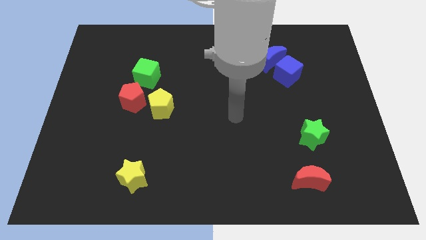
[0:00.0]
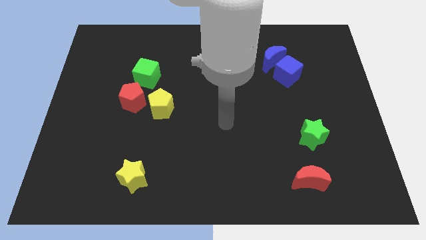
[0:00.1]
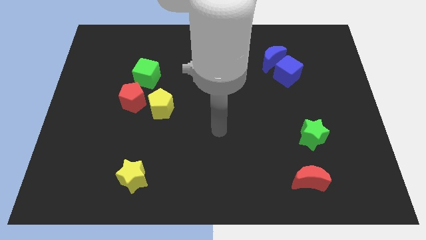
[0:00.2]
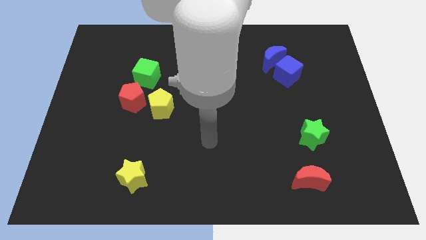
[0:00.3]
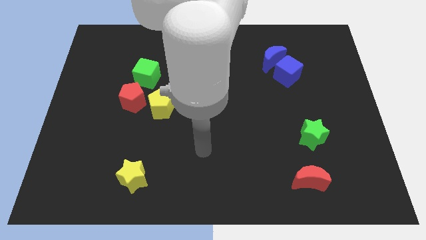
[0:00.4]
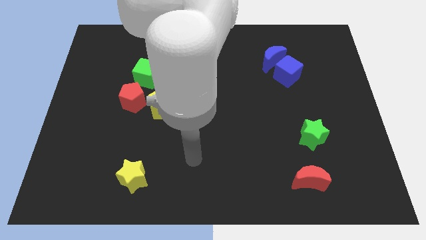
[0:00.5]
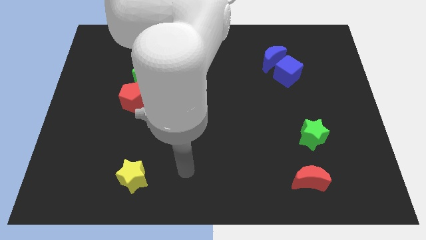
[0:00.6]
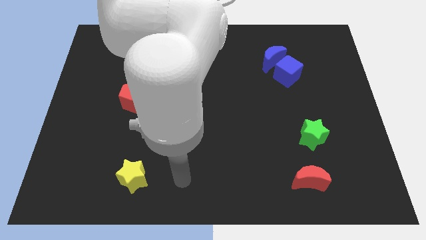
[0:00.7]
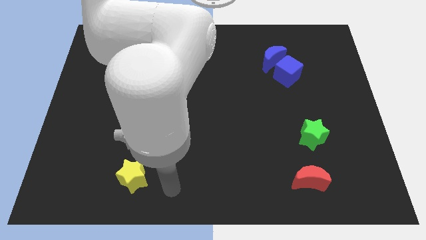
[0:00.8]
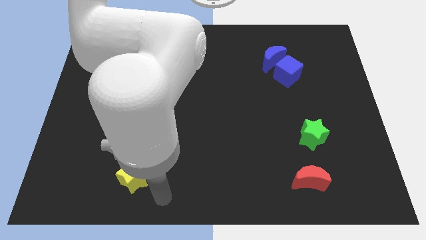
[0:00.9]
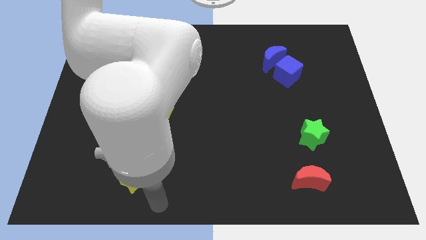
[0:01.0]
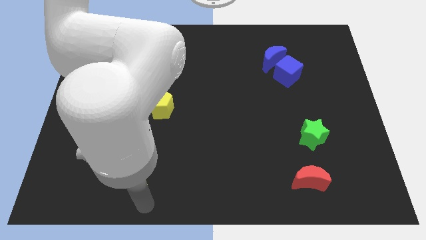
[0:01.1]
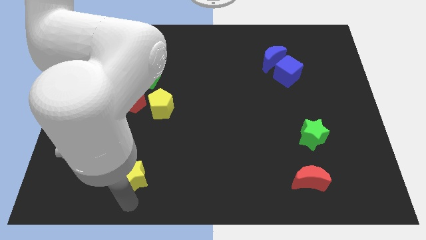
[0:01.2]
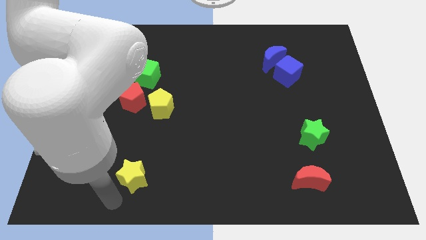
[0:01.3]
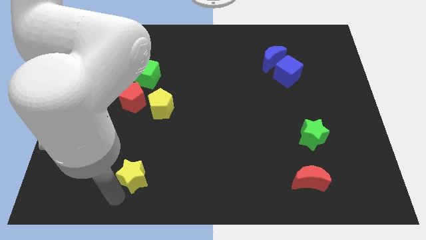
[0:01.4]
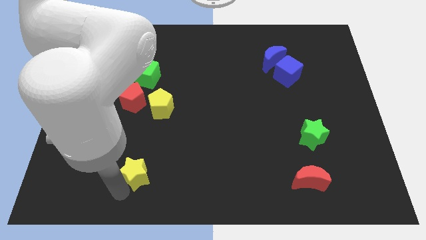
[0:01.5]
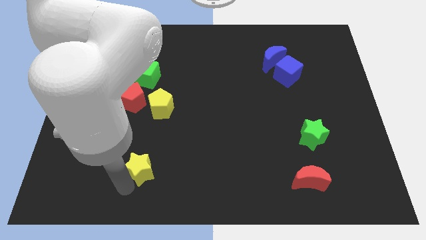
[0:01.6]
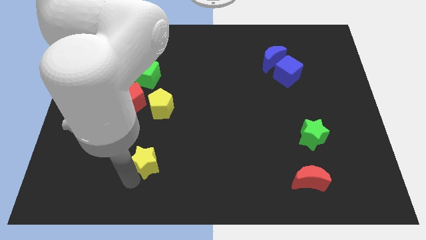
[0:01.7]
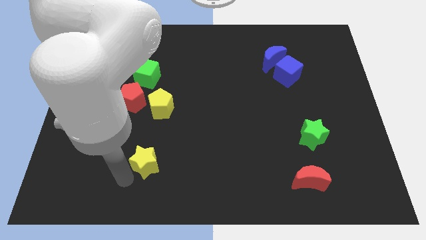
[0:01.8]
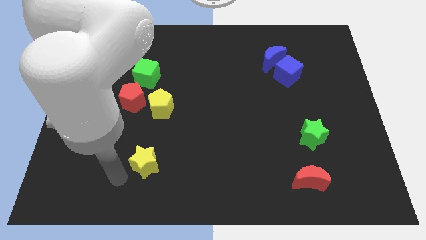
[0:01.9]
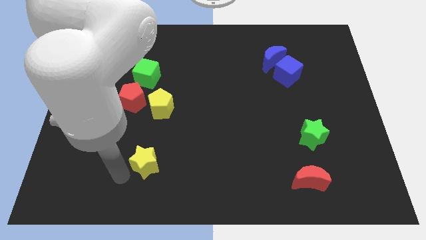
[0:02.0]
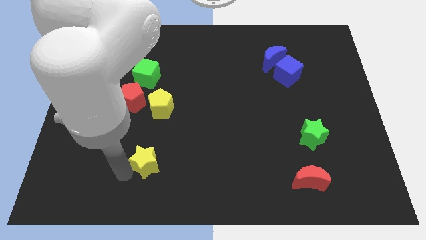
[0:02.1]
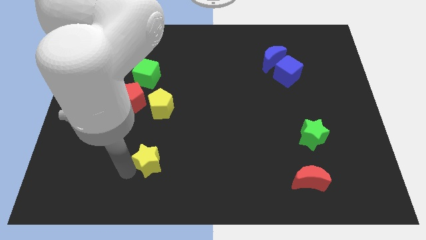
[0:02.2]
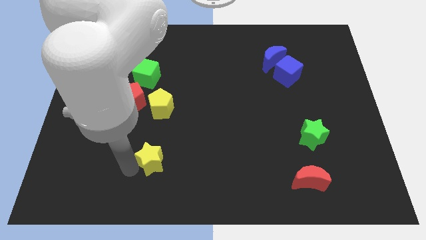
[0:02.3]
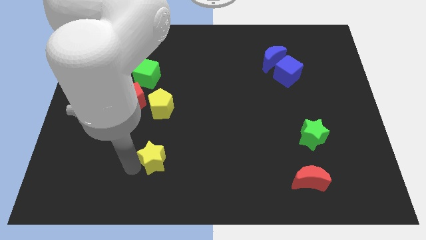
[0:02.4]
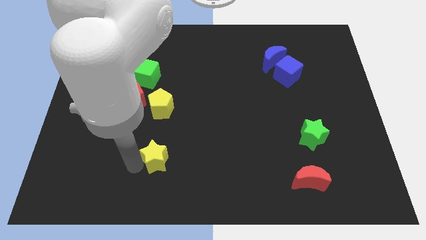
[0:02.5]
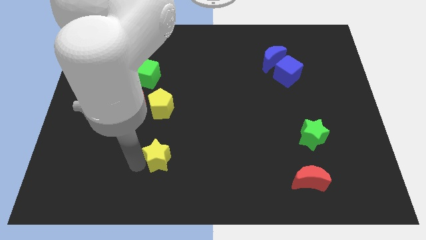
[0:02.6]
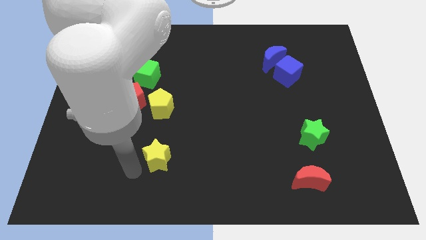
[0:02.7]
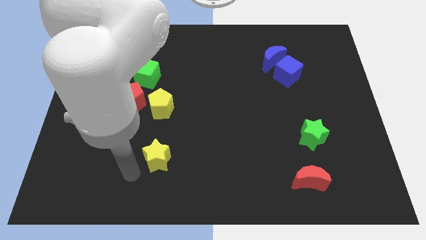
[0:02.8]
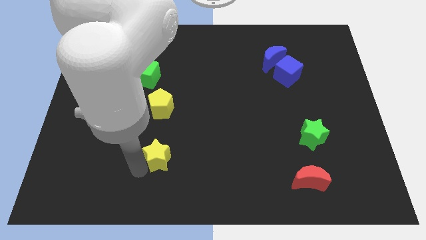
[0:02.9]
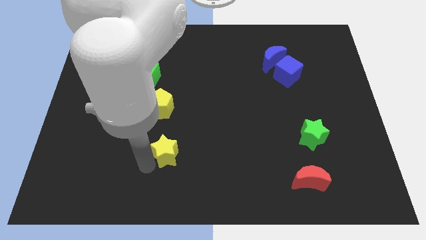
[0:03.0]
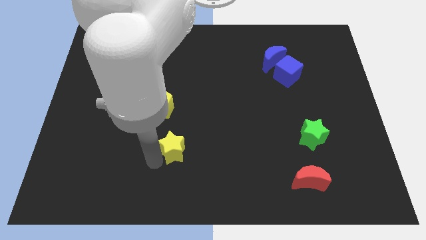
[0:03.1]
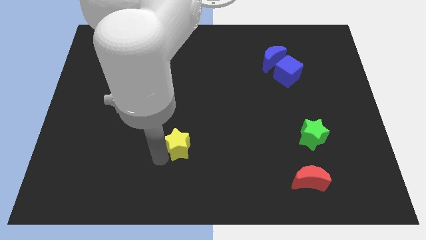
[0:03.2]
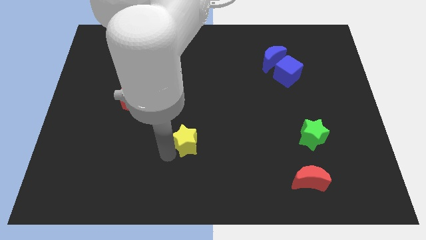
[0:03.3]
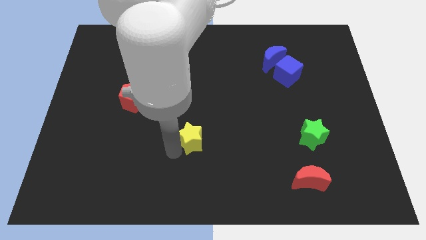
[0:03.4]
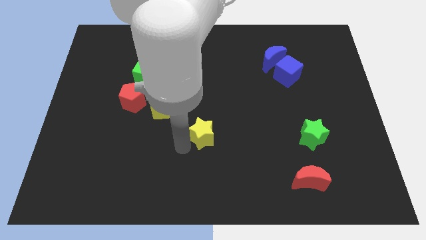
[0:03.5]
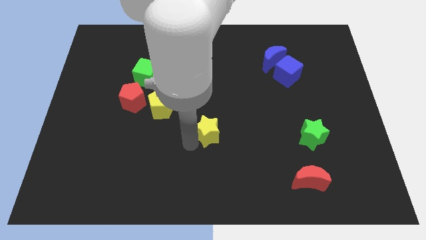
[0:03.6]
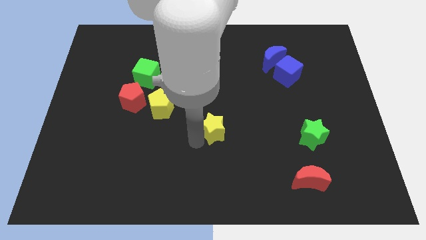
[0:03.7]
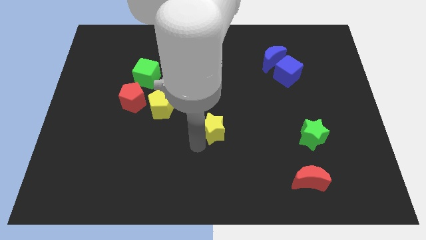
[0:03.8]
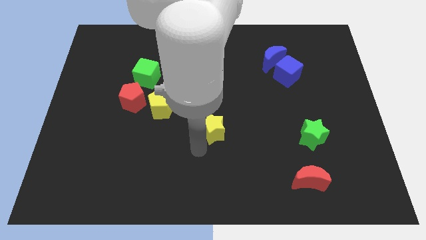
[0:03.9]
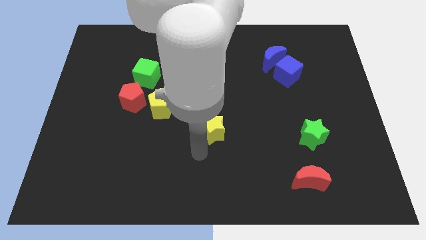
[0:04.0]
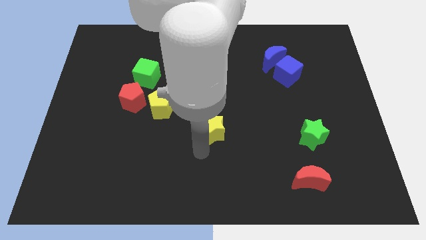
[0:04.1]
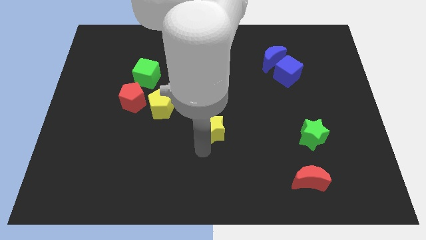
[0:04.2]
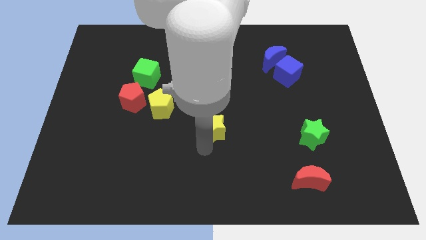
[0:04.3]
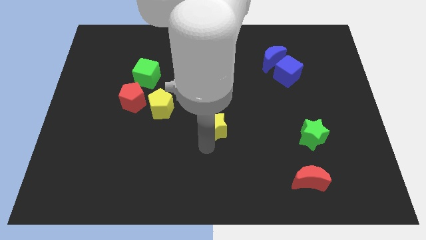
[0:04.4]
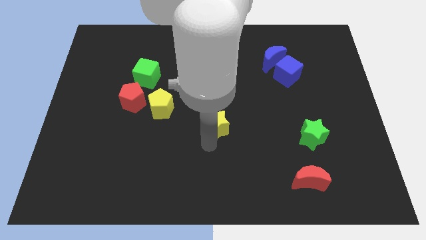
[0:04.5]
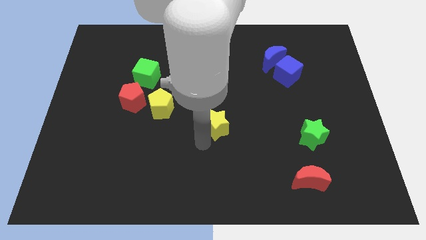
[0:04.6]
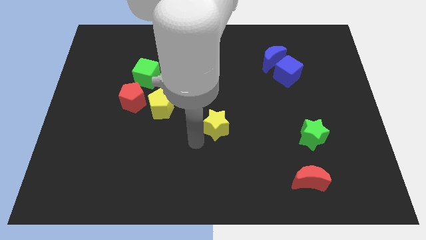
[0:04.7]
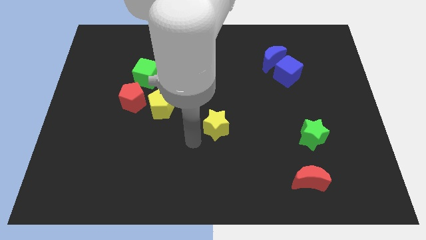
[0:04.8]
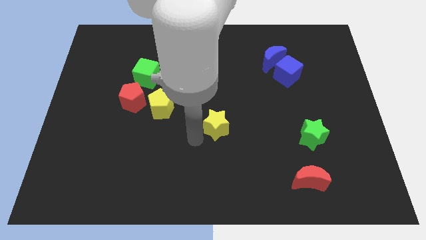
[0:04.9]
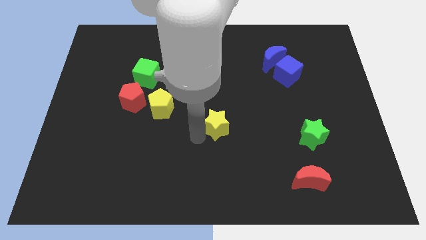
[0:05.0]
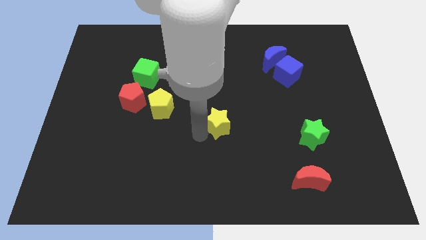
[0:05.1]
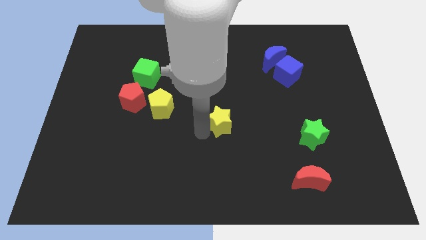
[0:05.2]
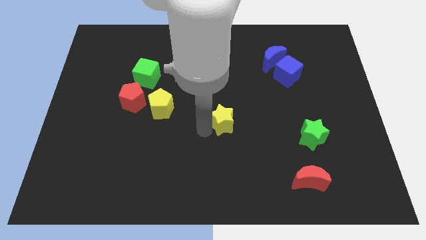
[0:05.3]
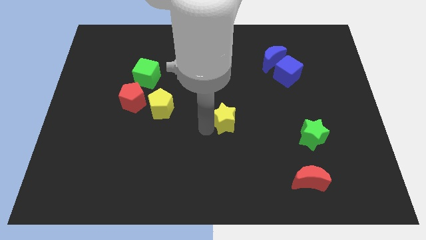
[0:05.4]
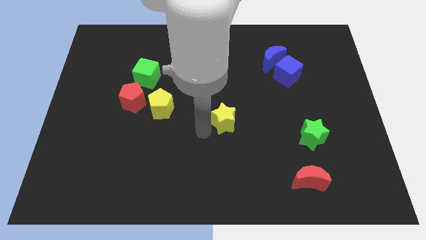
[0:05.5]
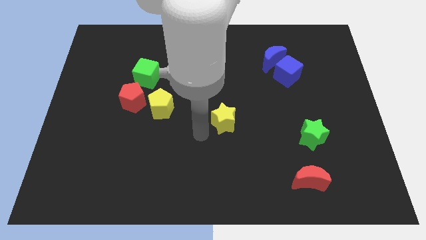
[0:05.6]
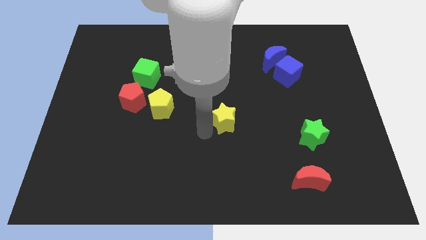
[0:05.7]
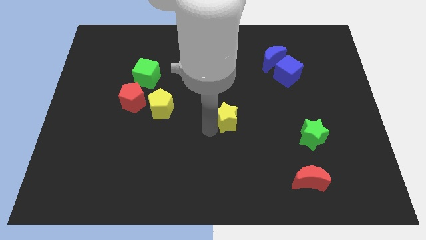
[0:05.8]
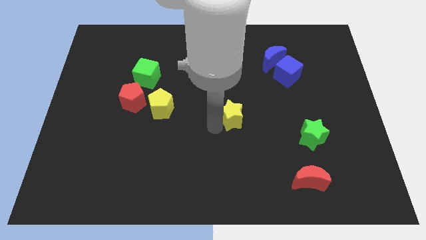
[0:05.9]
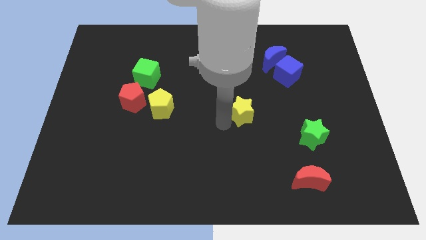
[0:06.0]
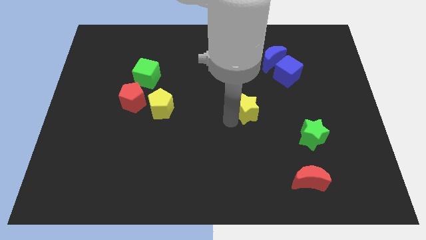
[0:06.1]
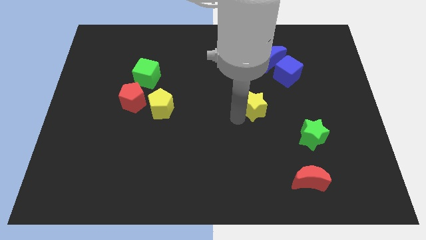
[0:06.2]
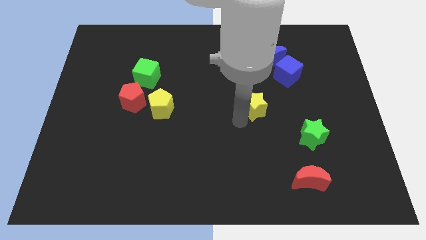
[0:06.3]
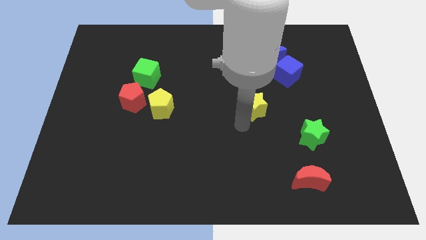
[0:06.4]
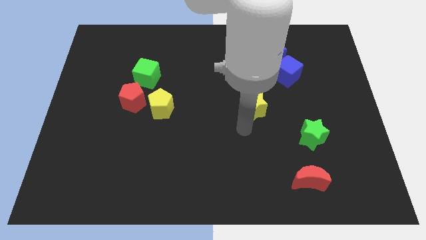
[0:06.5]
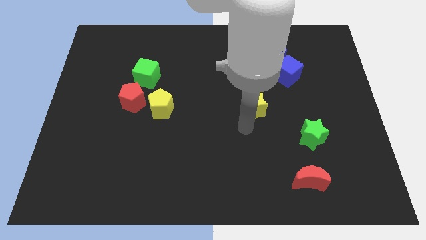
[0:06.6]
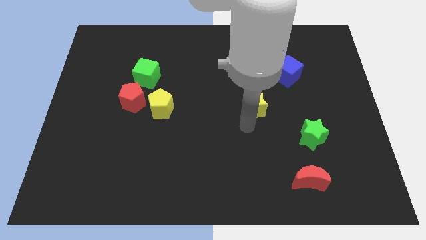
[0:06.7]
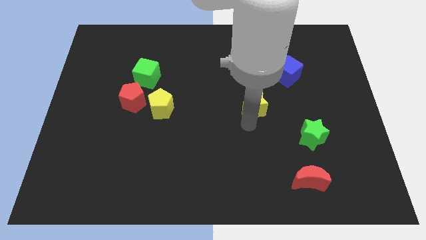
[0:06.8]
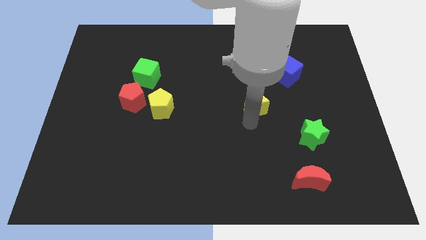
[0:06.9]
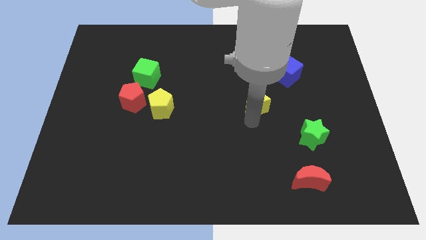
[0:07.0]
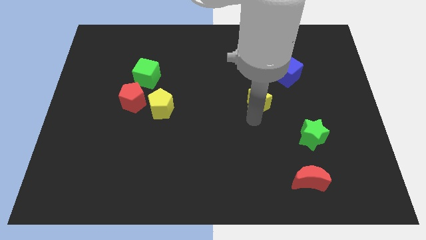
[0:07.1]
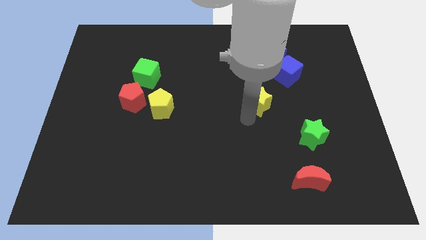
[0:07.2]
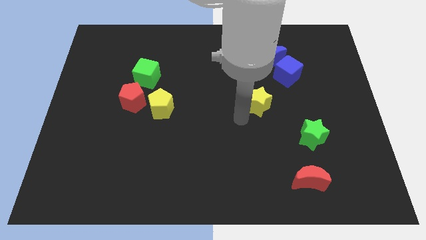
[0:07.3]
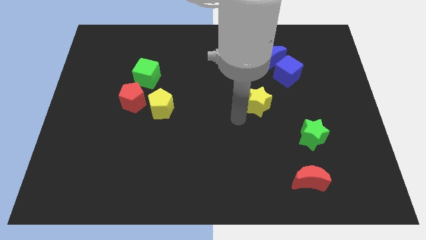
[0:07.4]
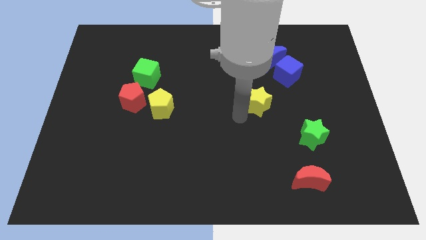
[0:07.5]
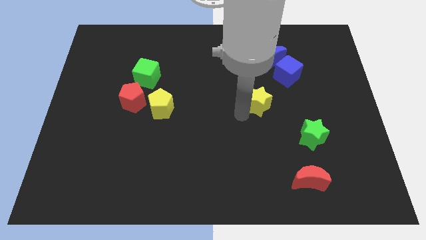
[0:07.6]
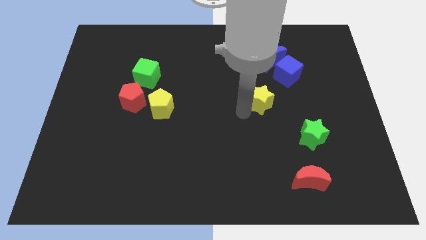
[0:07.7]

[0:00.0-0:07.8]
move the yellow star below the blue moon
